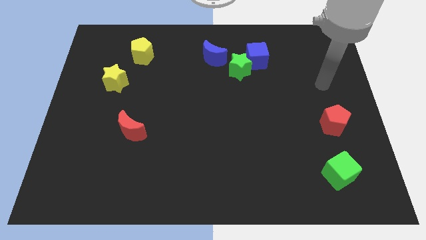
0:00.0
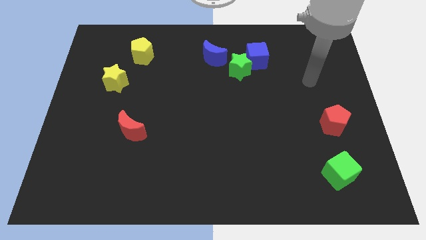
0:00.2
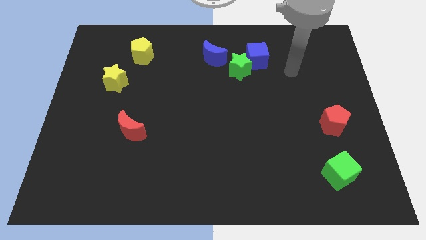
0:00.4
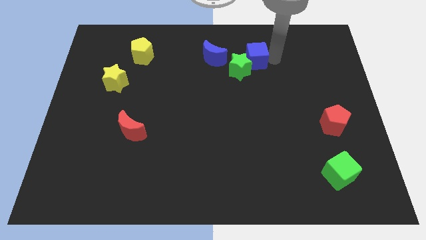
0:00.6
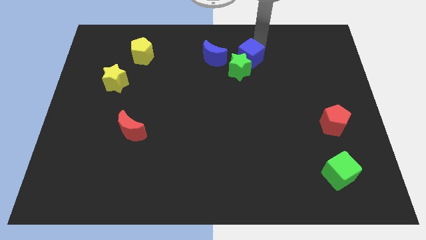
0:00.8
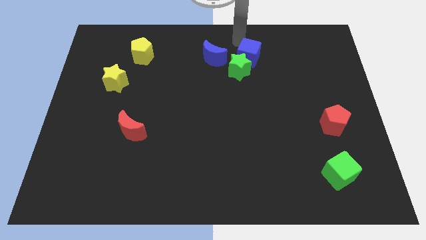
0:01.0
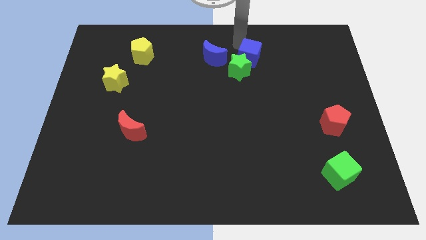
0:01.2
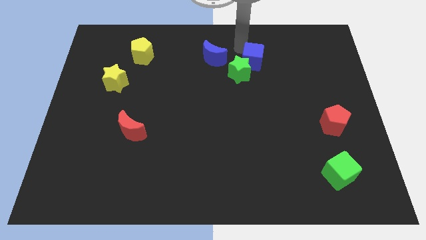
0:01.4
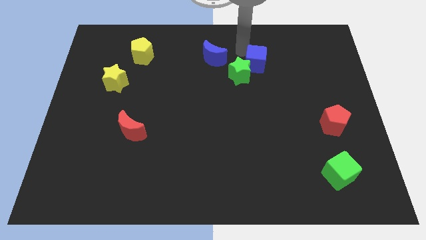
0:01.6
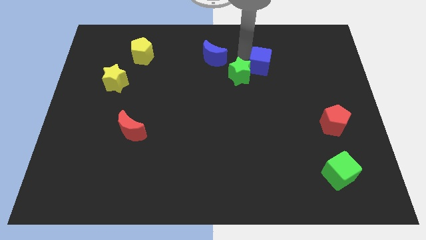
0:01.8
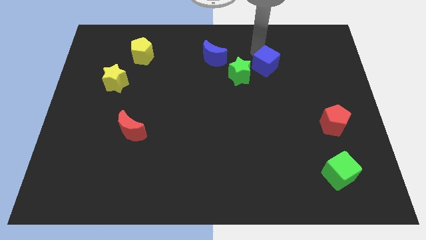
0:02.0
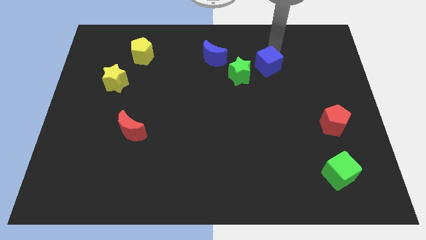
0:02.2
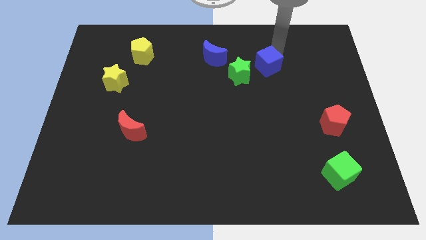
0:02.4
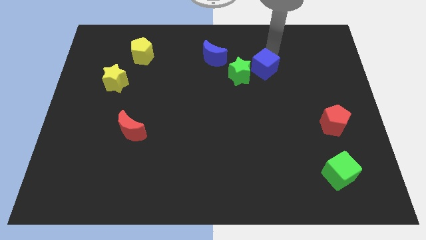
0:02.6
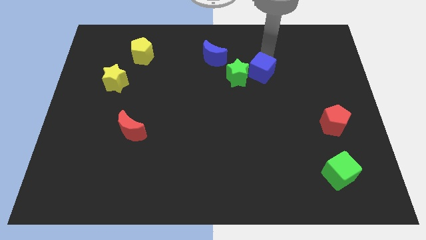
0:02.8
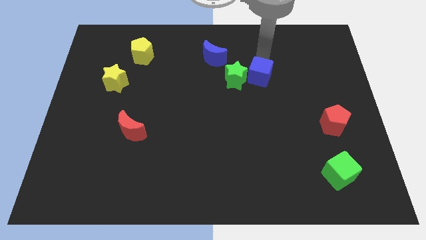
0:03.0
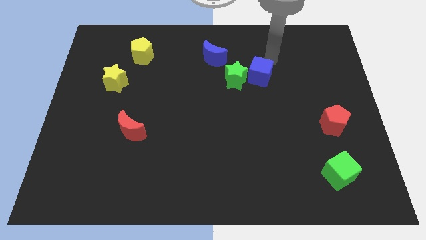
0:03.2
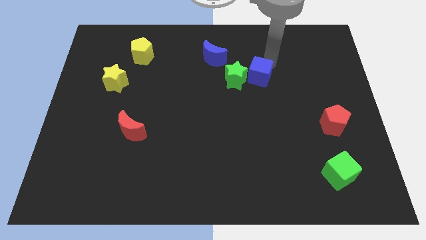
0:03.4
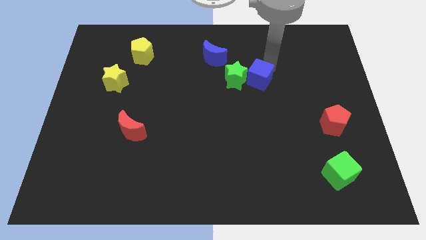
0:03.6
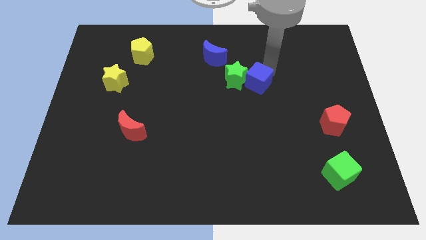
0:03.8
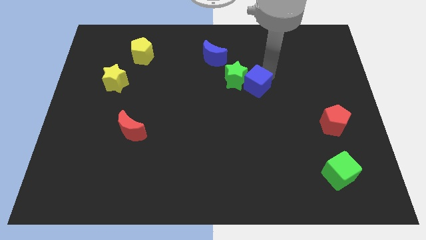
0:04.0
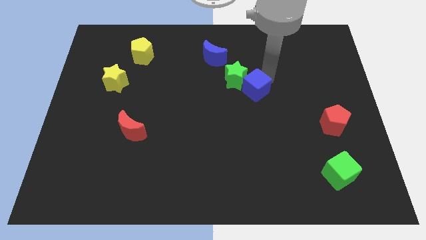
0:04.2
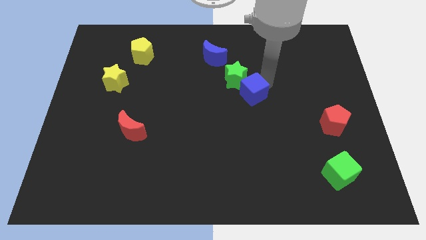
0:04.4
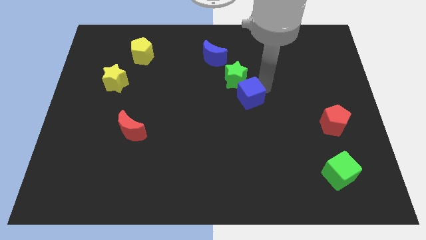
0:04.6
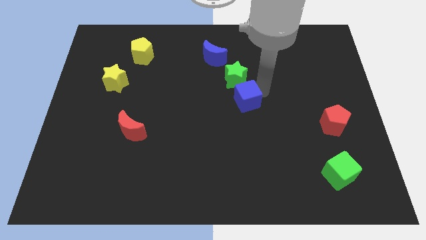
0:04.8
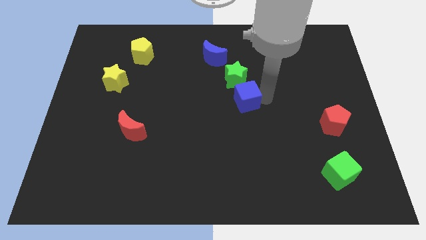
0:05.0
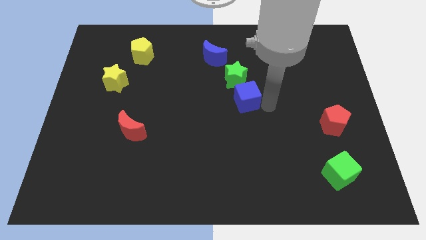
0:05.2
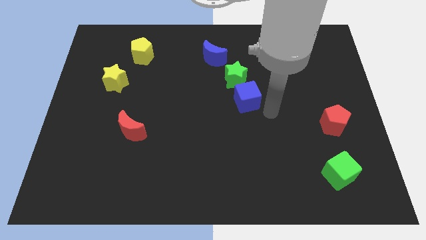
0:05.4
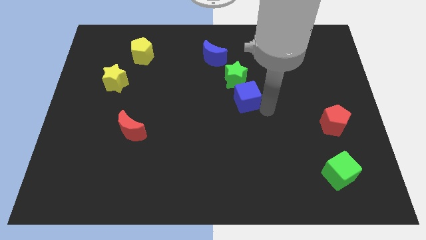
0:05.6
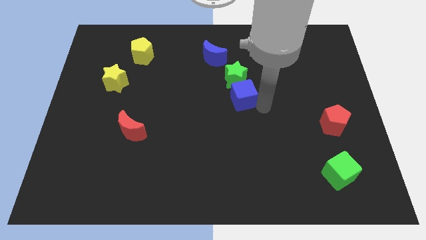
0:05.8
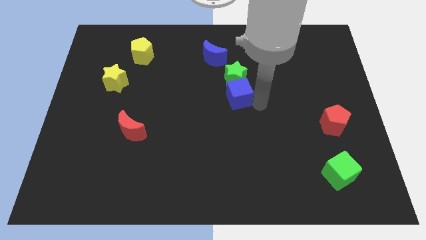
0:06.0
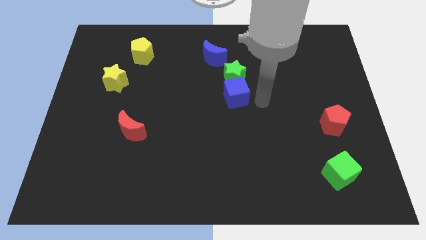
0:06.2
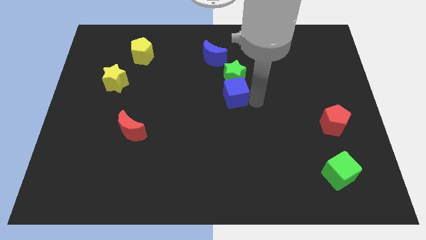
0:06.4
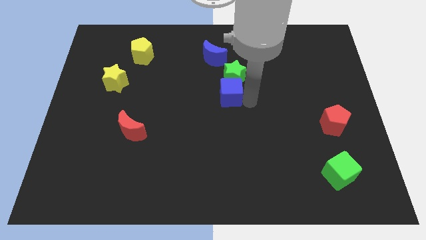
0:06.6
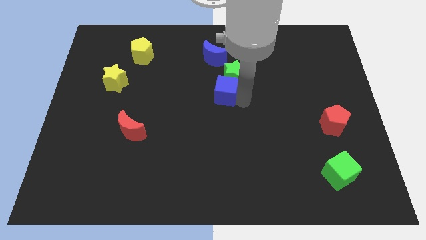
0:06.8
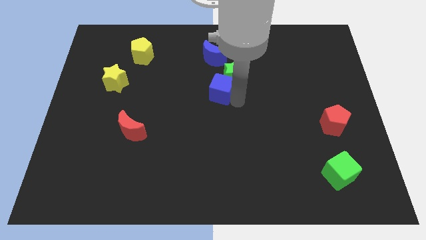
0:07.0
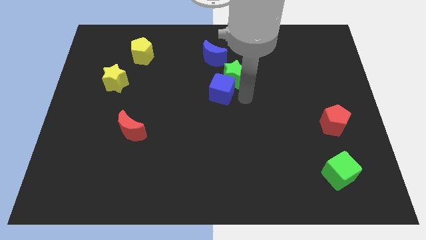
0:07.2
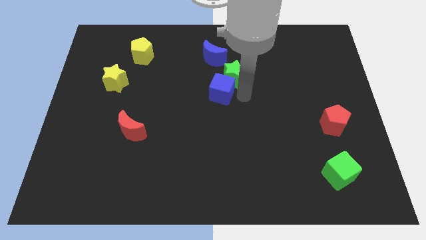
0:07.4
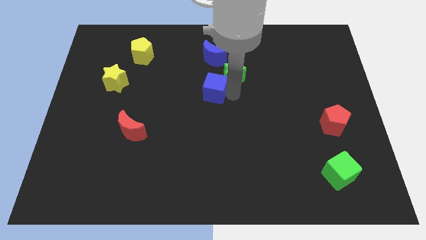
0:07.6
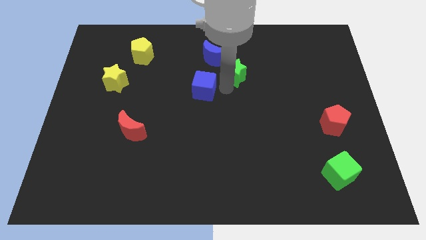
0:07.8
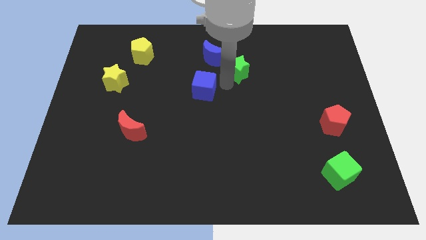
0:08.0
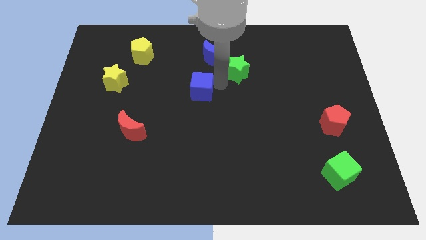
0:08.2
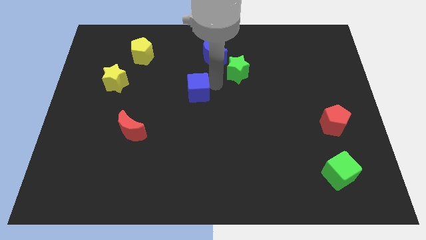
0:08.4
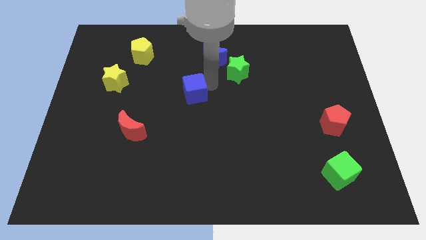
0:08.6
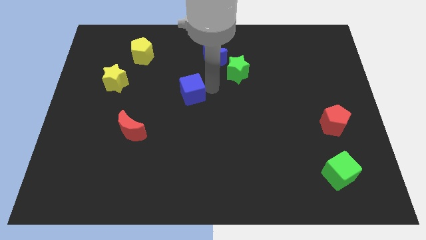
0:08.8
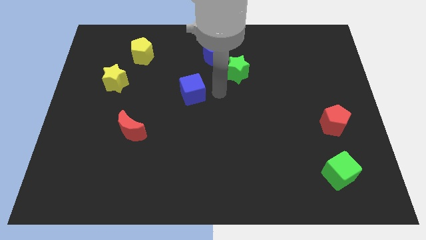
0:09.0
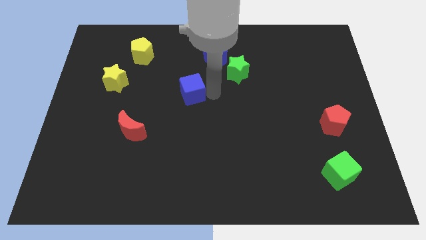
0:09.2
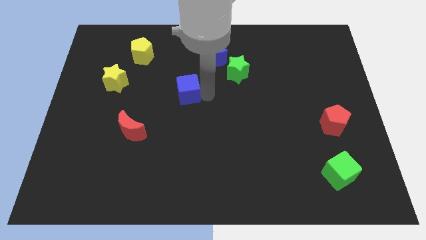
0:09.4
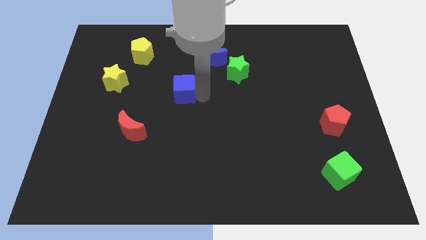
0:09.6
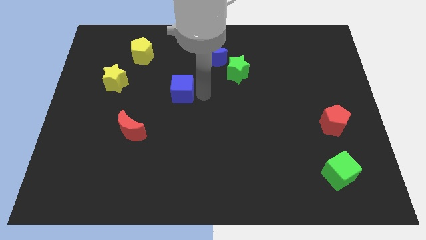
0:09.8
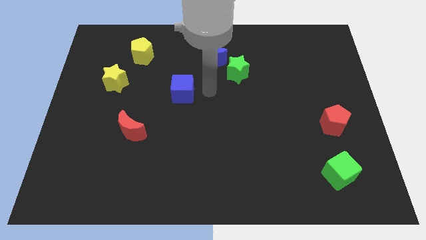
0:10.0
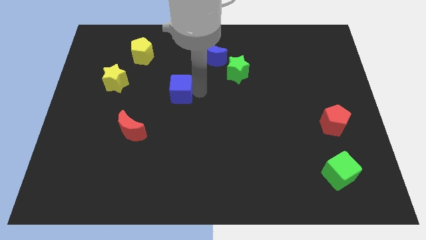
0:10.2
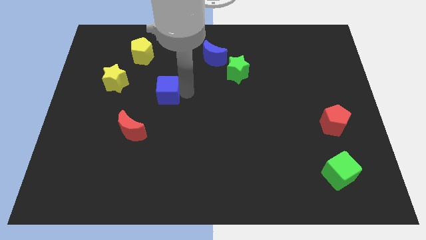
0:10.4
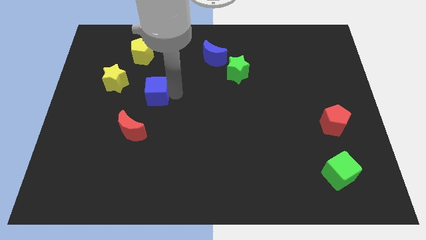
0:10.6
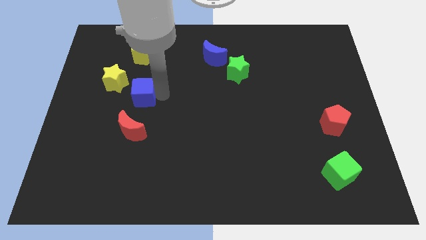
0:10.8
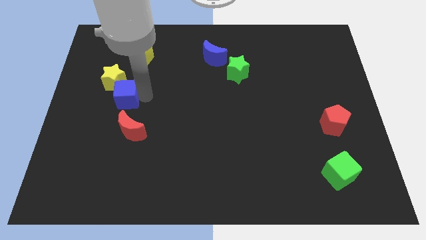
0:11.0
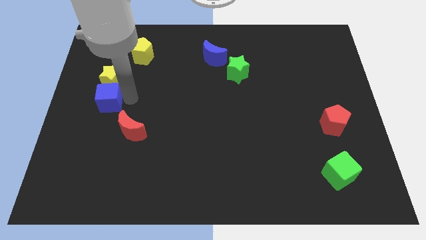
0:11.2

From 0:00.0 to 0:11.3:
slide the blue cube to the center left

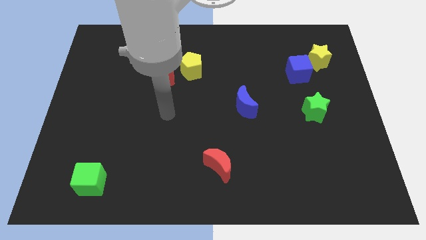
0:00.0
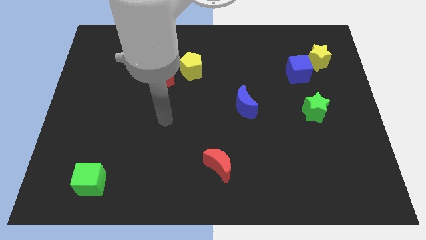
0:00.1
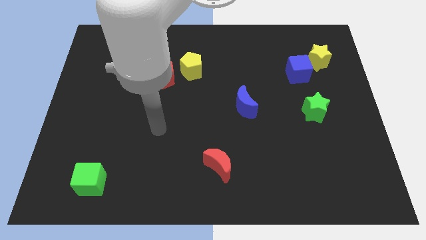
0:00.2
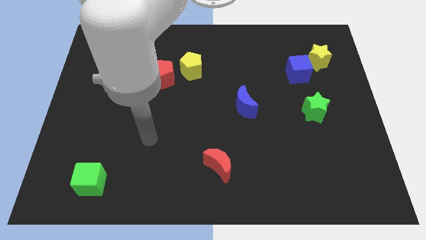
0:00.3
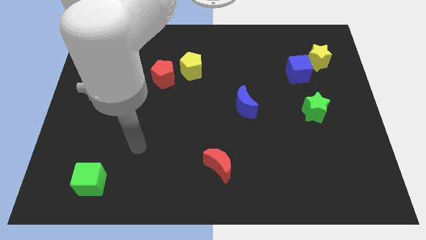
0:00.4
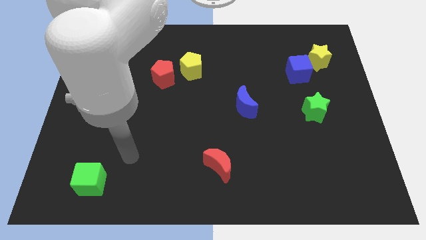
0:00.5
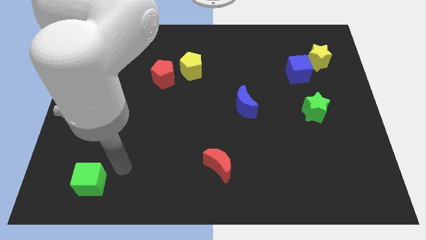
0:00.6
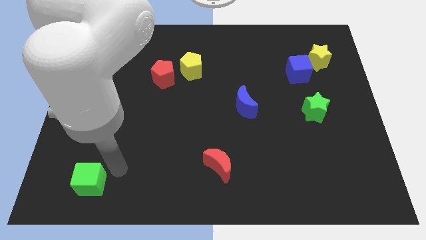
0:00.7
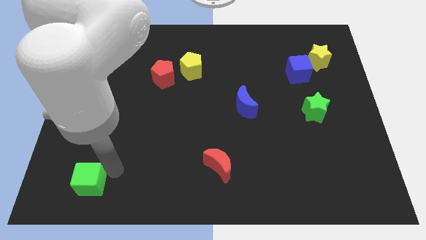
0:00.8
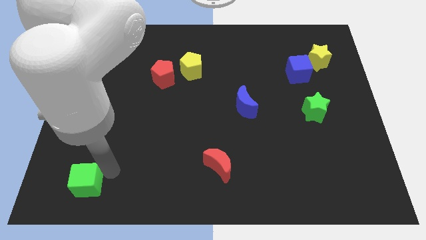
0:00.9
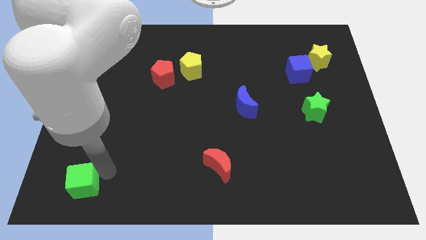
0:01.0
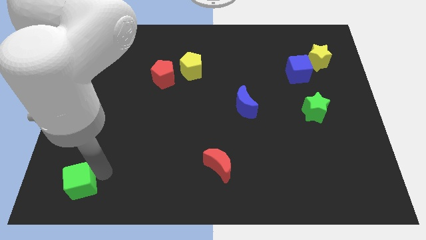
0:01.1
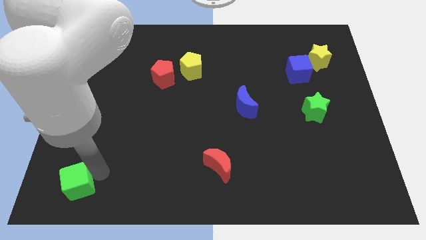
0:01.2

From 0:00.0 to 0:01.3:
push the green cube to the bottom left
